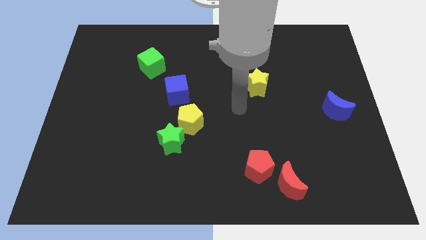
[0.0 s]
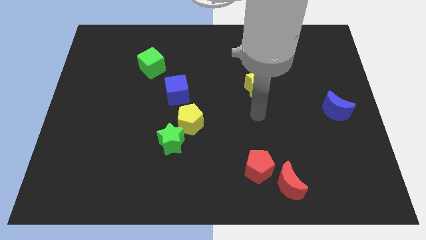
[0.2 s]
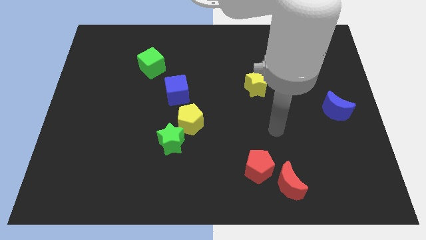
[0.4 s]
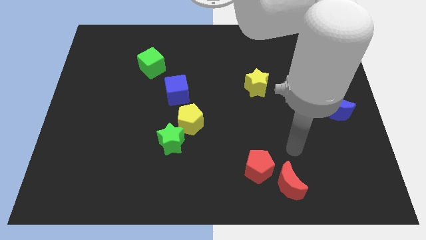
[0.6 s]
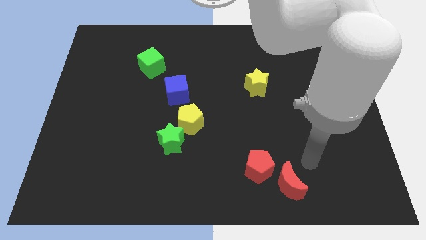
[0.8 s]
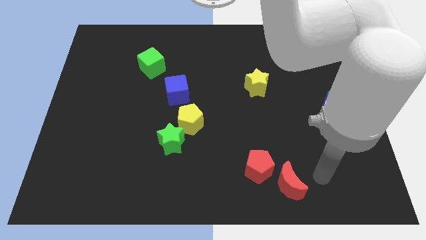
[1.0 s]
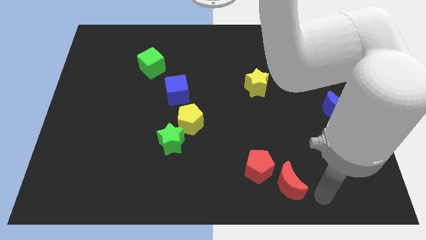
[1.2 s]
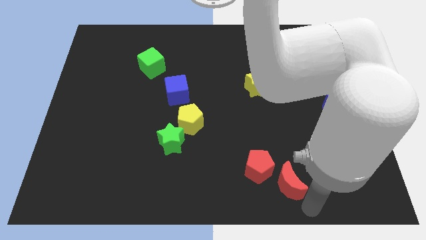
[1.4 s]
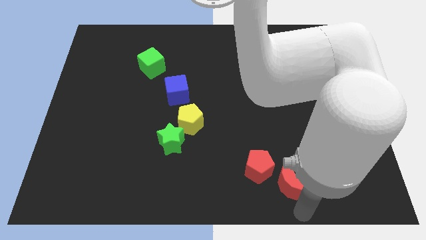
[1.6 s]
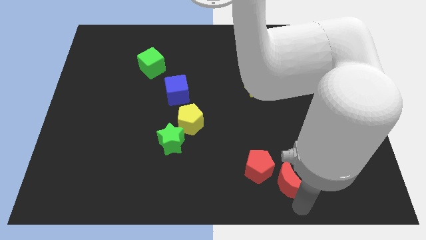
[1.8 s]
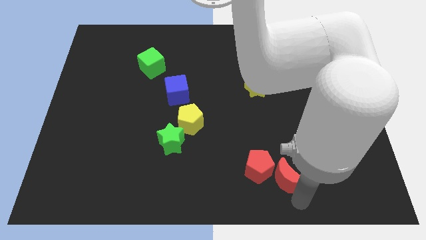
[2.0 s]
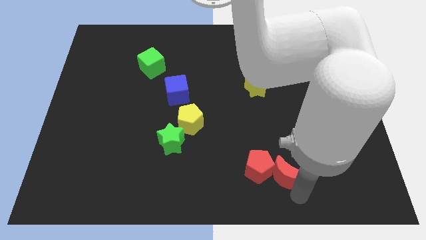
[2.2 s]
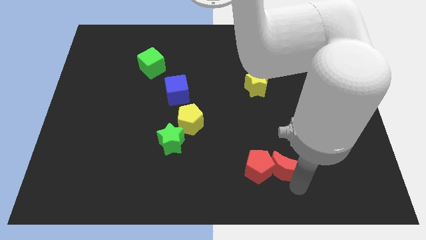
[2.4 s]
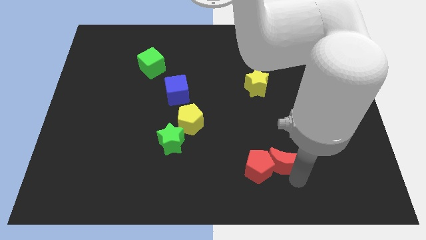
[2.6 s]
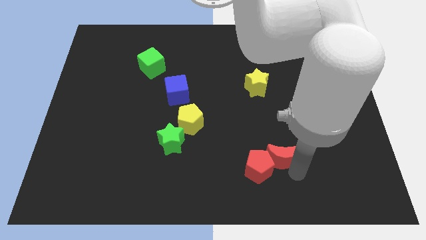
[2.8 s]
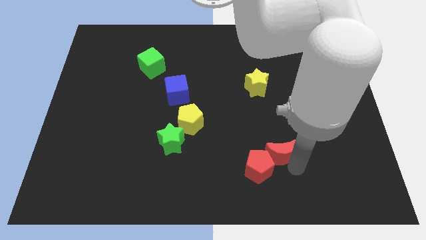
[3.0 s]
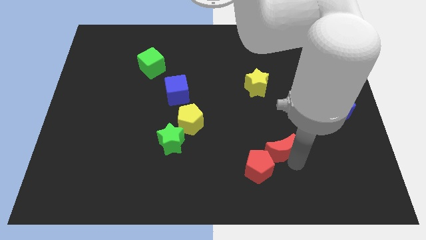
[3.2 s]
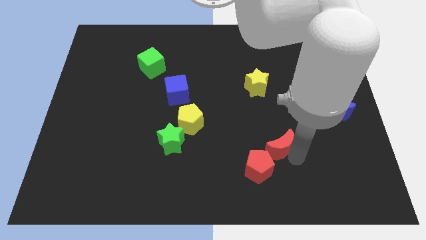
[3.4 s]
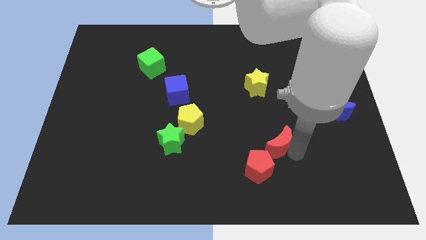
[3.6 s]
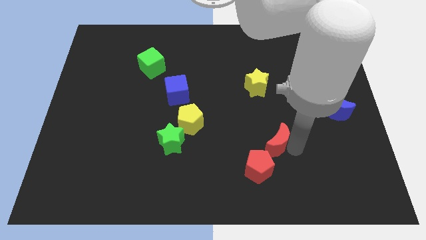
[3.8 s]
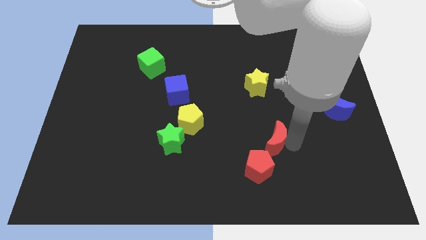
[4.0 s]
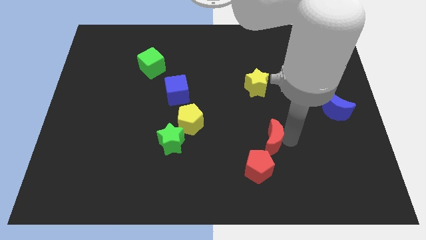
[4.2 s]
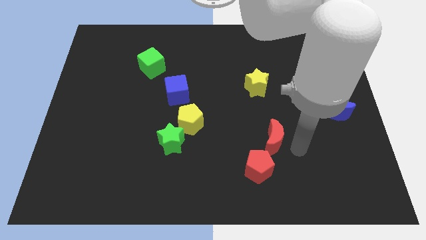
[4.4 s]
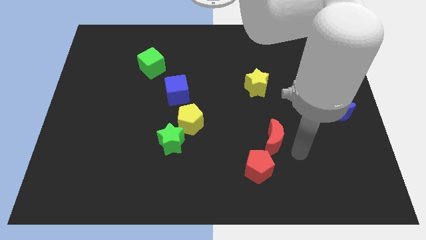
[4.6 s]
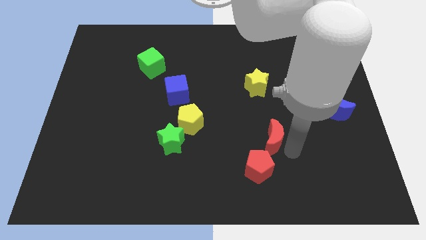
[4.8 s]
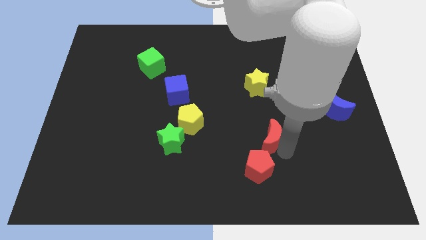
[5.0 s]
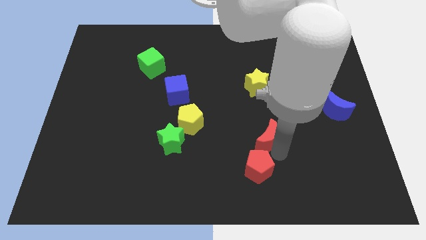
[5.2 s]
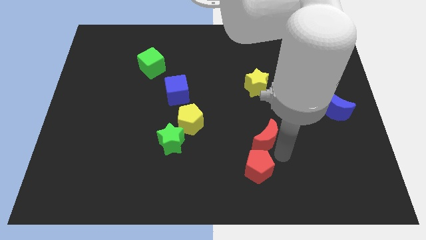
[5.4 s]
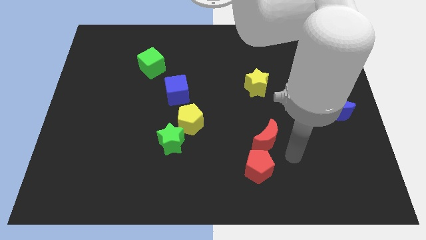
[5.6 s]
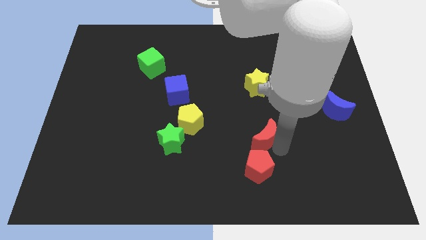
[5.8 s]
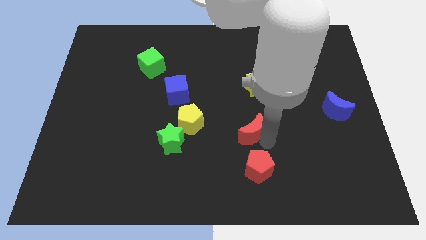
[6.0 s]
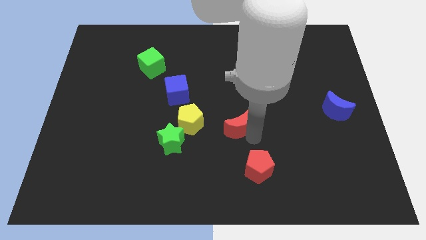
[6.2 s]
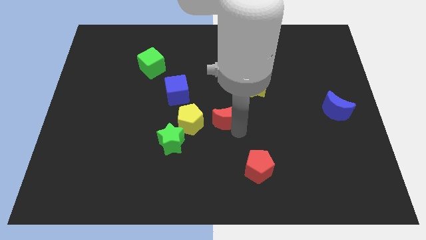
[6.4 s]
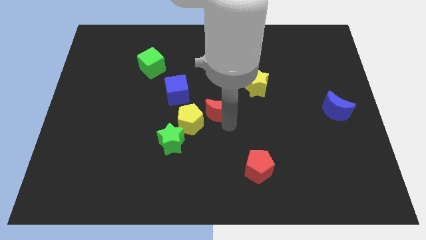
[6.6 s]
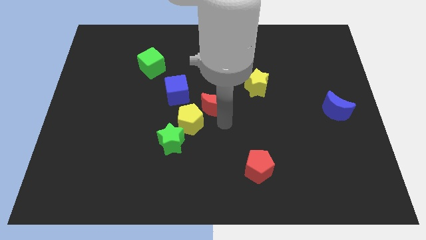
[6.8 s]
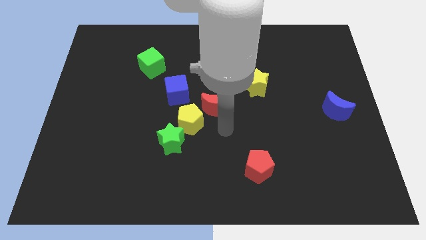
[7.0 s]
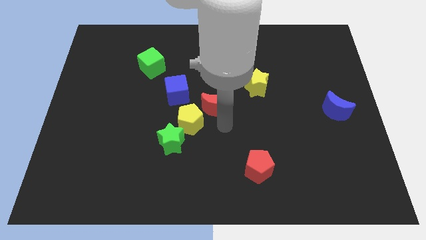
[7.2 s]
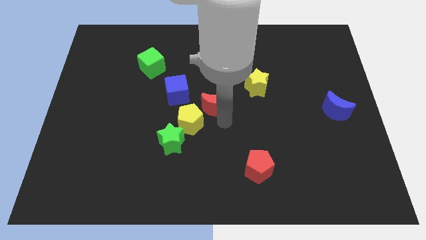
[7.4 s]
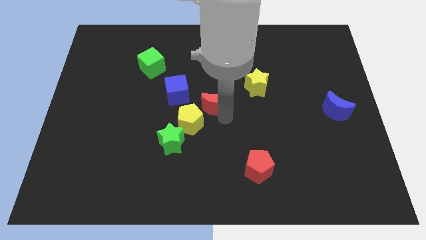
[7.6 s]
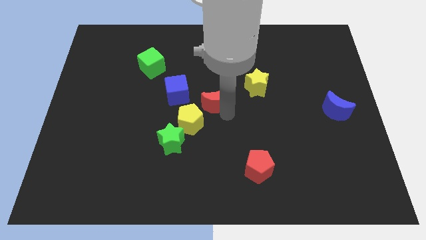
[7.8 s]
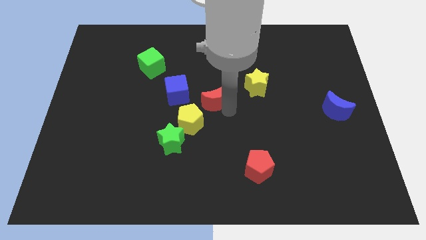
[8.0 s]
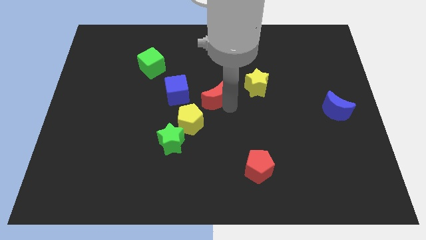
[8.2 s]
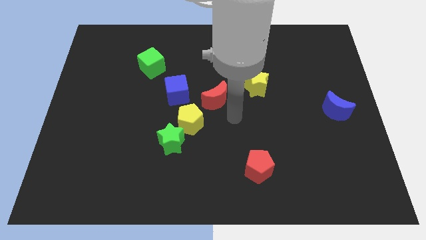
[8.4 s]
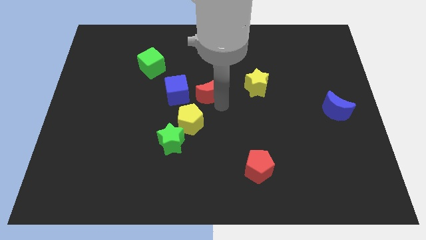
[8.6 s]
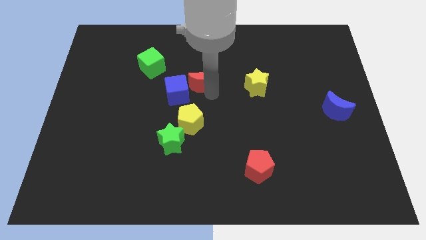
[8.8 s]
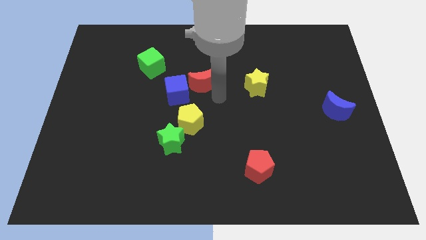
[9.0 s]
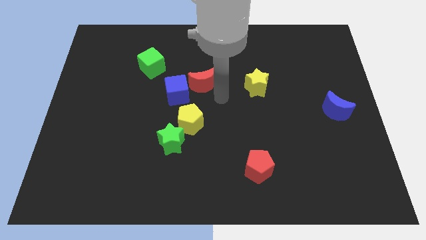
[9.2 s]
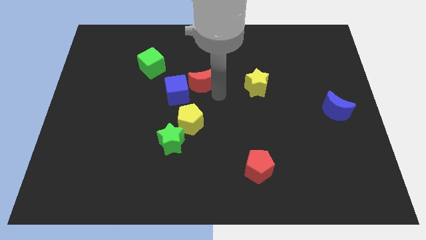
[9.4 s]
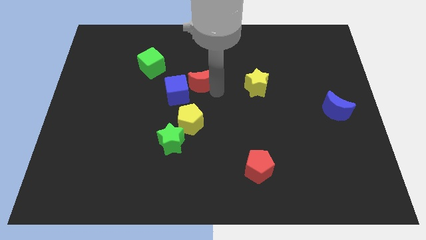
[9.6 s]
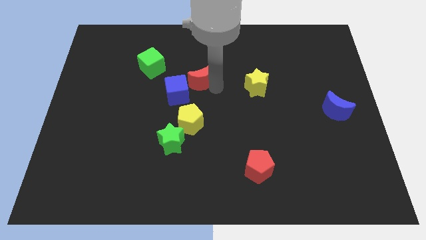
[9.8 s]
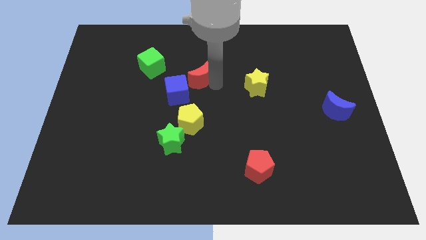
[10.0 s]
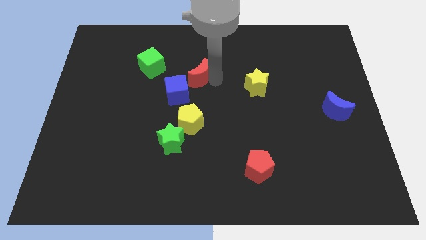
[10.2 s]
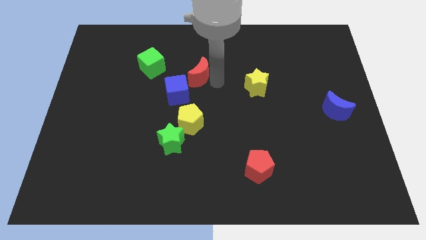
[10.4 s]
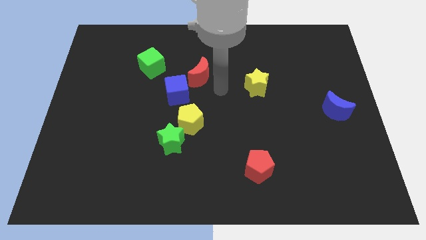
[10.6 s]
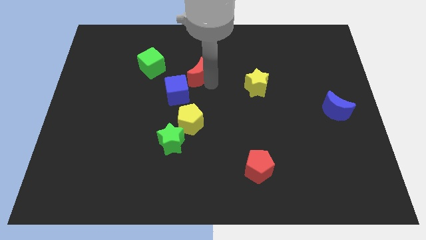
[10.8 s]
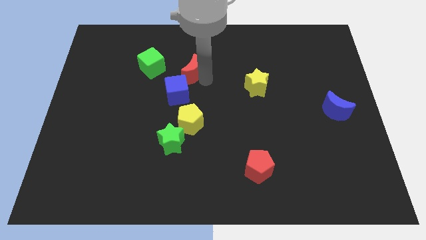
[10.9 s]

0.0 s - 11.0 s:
push the red moon above the blue cube

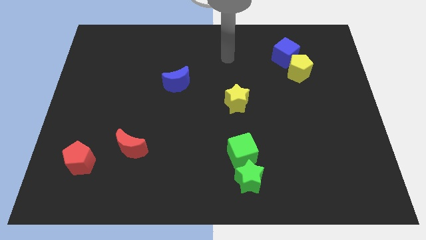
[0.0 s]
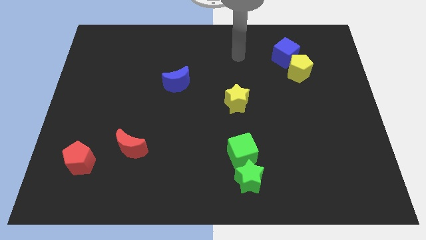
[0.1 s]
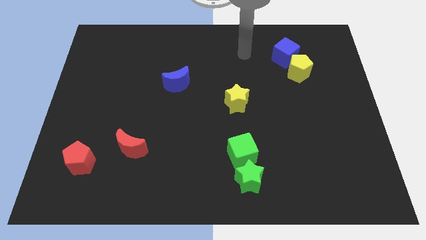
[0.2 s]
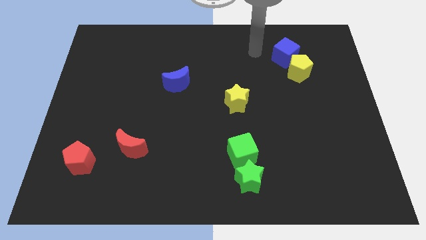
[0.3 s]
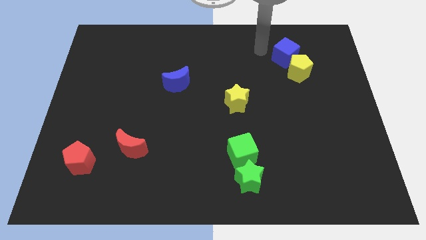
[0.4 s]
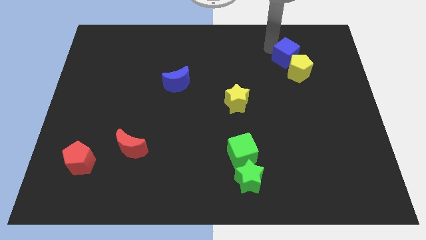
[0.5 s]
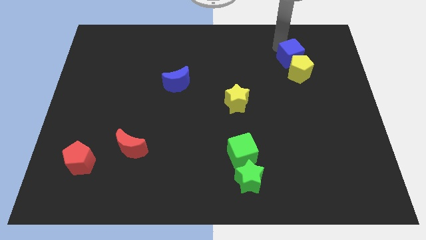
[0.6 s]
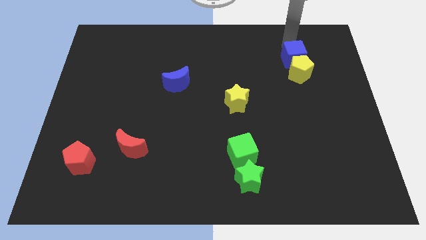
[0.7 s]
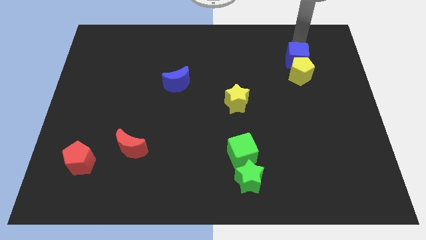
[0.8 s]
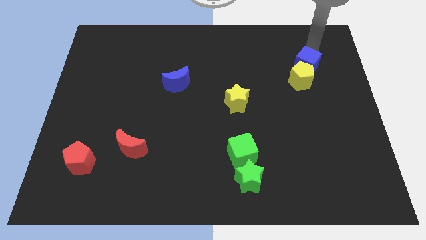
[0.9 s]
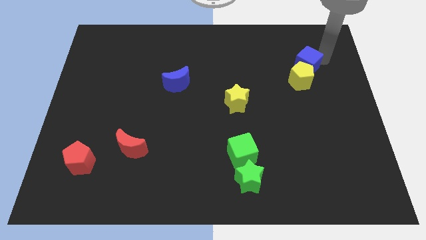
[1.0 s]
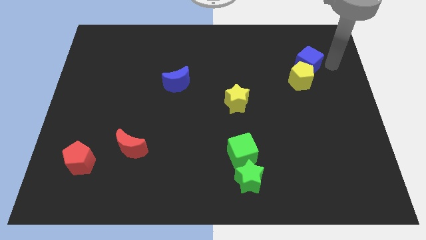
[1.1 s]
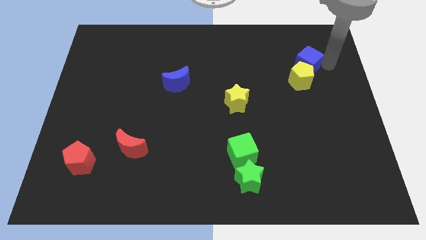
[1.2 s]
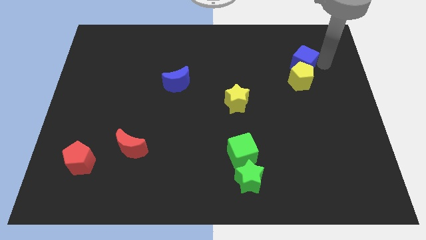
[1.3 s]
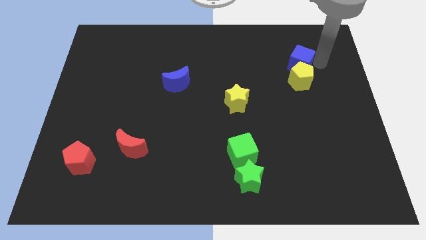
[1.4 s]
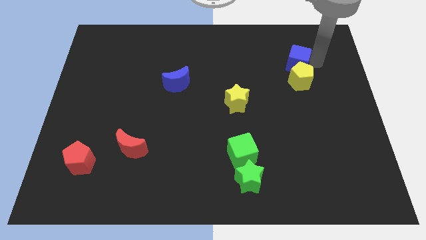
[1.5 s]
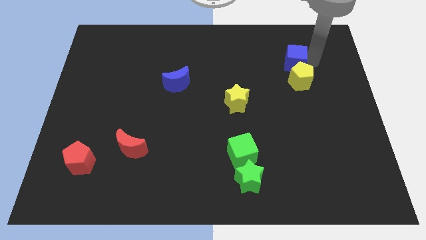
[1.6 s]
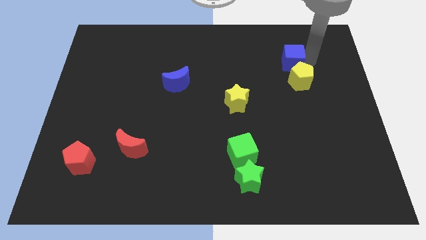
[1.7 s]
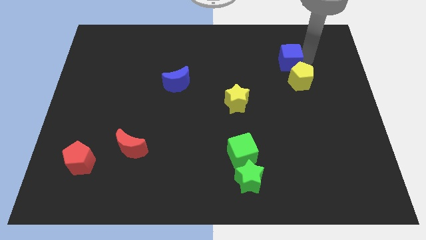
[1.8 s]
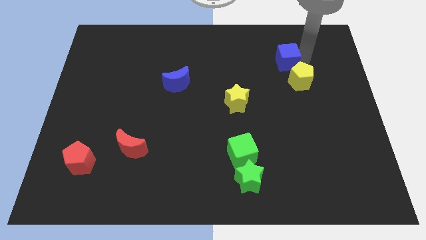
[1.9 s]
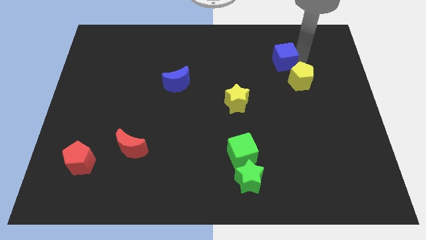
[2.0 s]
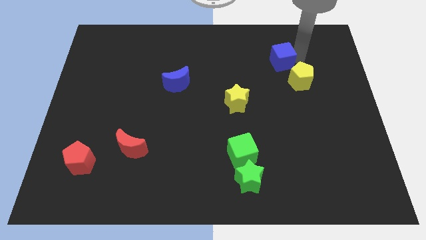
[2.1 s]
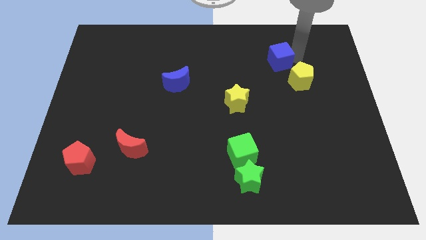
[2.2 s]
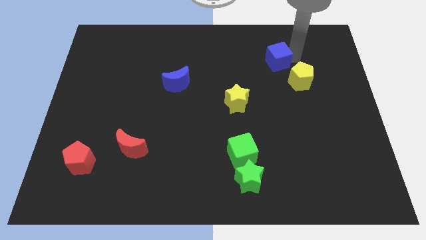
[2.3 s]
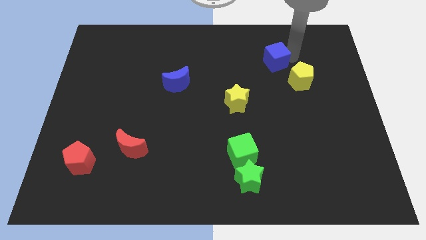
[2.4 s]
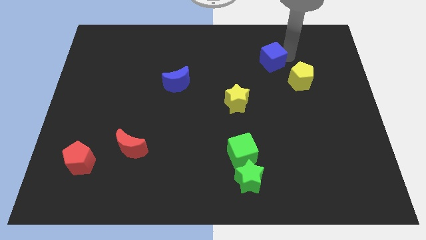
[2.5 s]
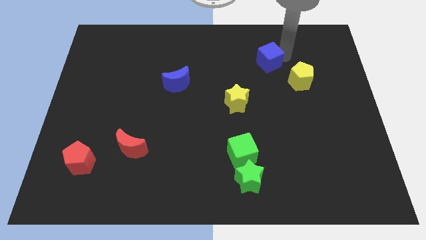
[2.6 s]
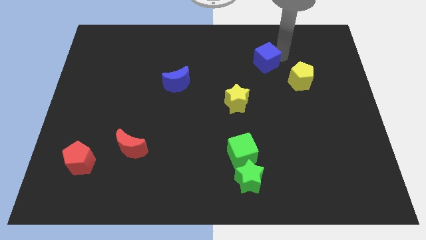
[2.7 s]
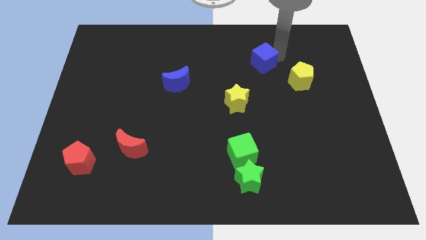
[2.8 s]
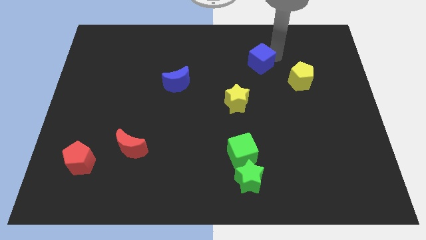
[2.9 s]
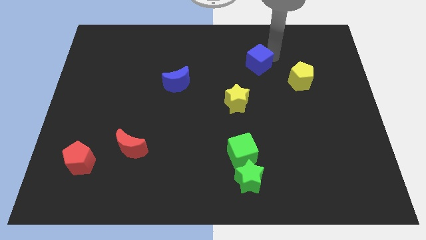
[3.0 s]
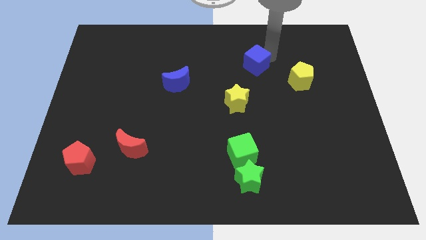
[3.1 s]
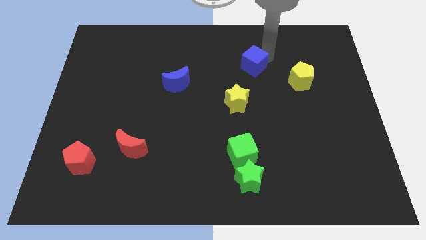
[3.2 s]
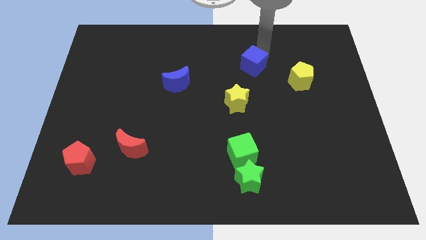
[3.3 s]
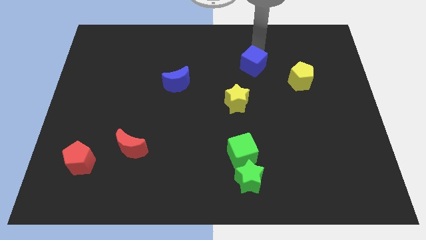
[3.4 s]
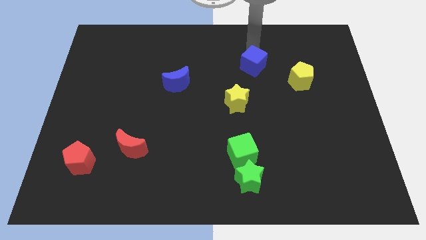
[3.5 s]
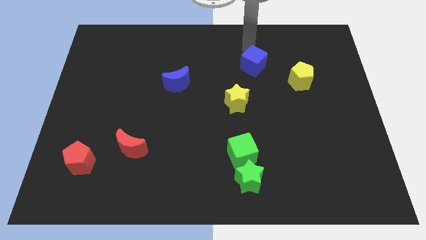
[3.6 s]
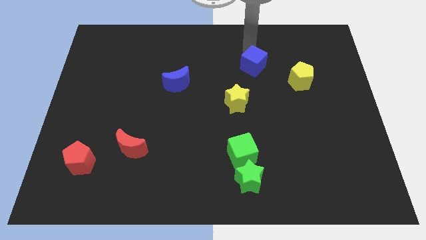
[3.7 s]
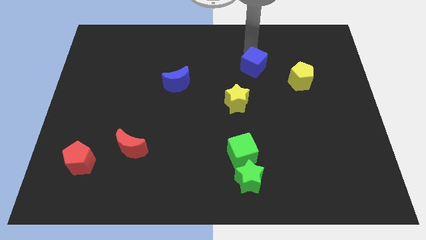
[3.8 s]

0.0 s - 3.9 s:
push the blue cube to the left of the yellow pentagon
